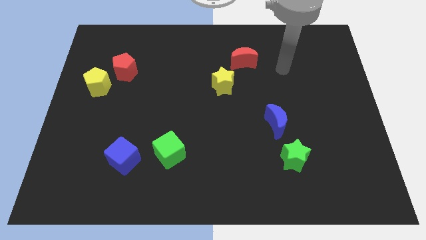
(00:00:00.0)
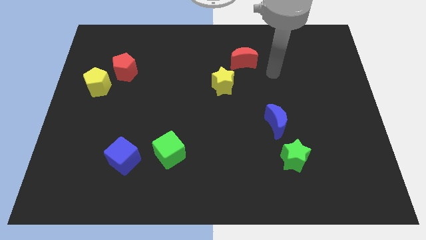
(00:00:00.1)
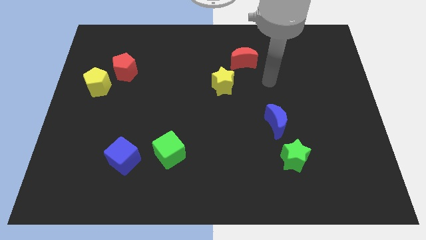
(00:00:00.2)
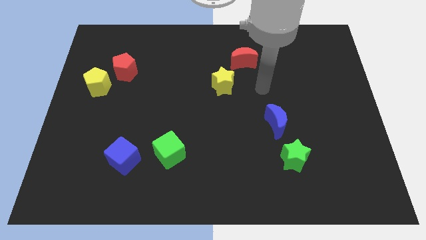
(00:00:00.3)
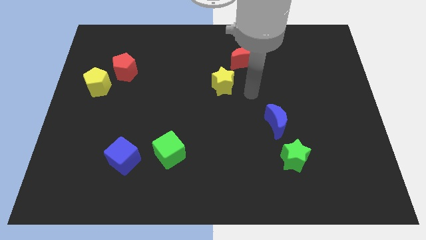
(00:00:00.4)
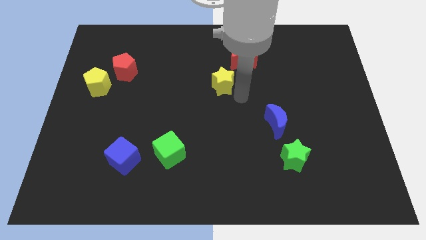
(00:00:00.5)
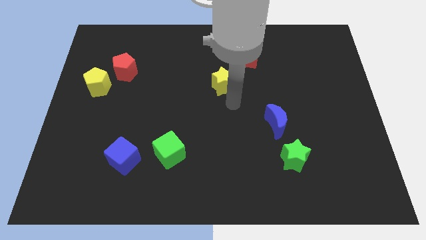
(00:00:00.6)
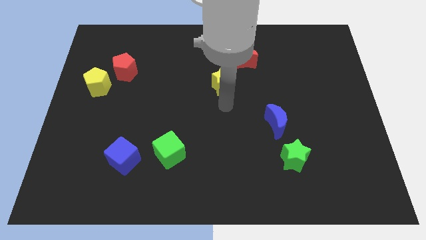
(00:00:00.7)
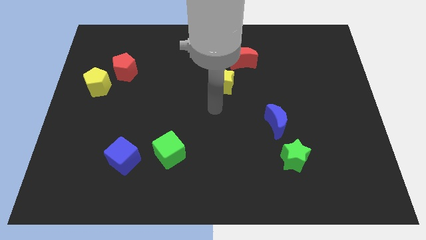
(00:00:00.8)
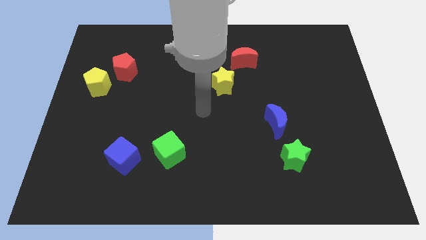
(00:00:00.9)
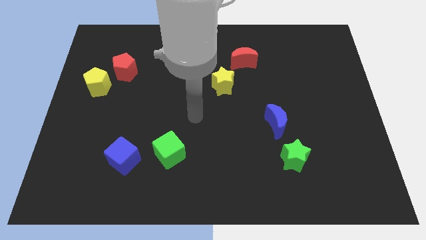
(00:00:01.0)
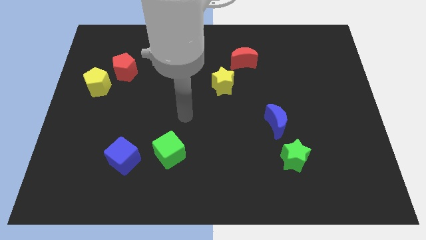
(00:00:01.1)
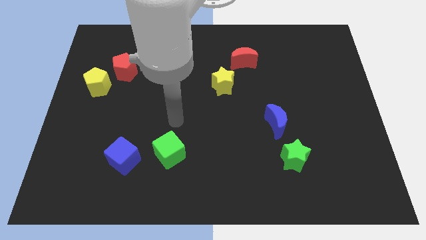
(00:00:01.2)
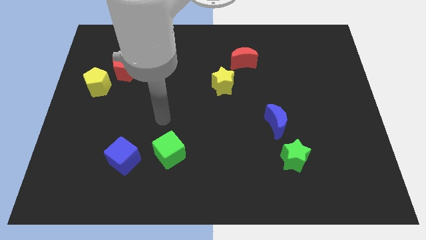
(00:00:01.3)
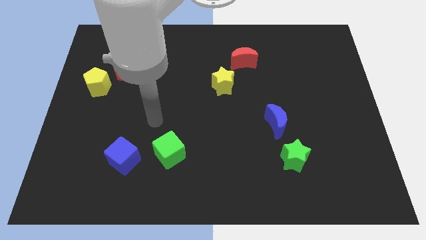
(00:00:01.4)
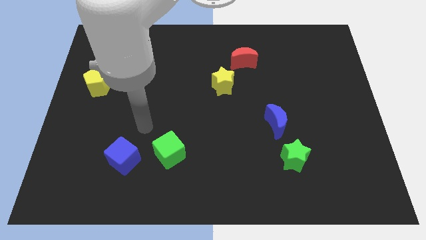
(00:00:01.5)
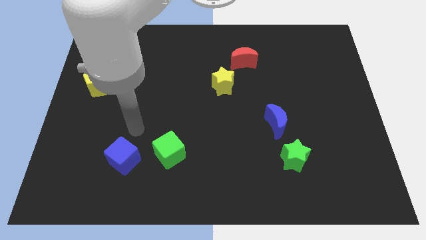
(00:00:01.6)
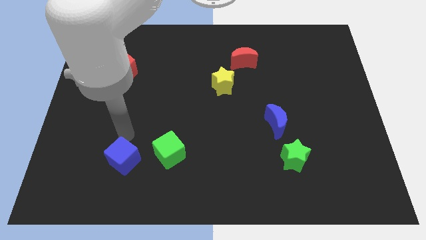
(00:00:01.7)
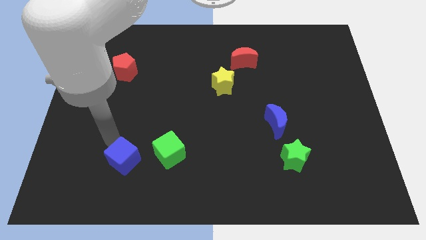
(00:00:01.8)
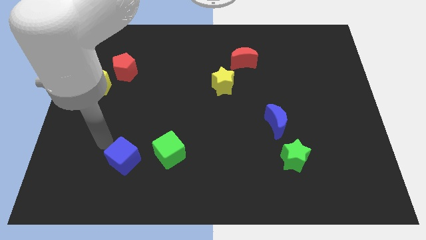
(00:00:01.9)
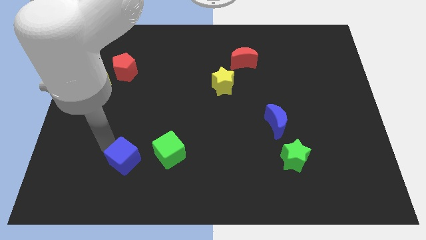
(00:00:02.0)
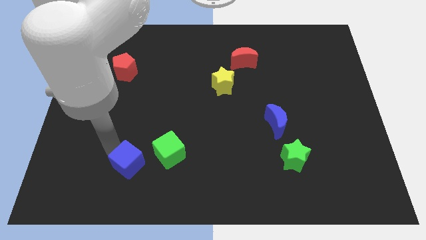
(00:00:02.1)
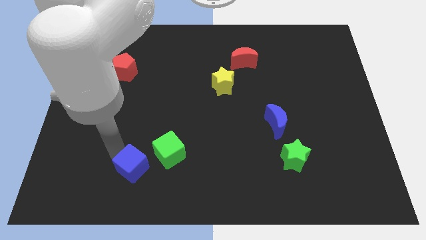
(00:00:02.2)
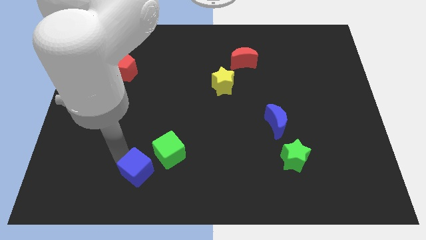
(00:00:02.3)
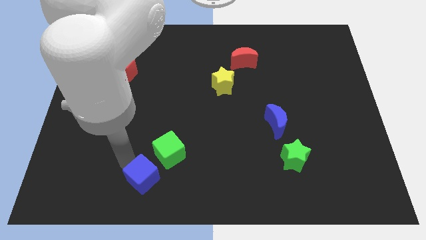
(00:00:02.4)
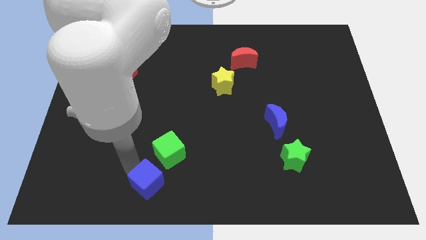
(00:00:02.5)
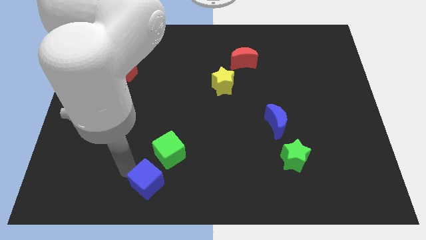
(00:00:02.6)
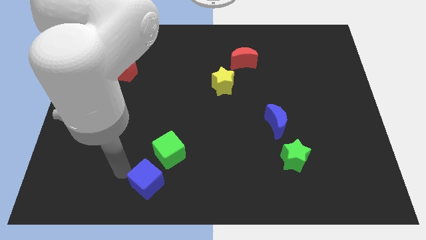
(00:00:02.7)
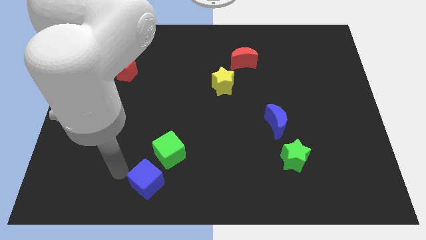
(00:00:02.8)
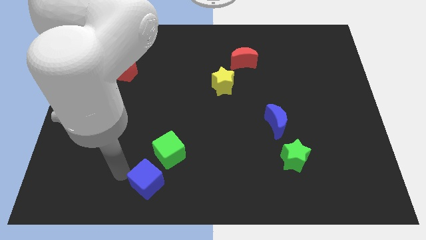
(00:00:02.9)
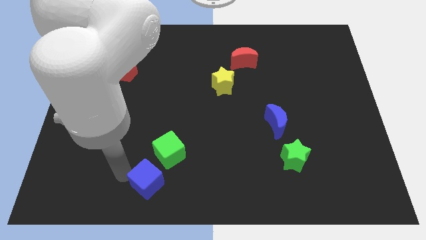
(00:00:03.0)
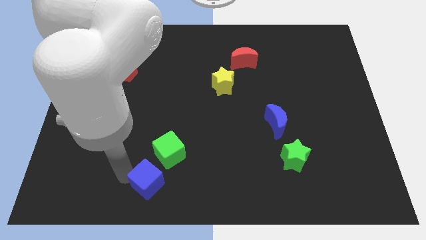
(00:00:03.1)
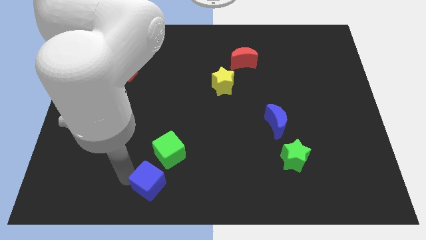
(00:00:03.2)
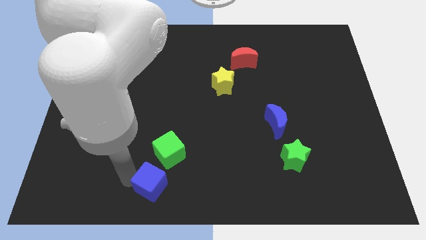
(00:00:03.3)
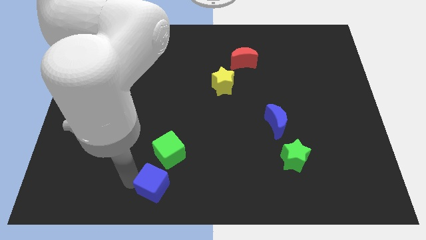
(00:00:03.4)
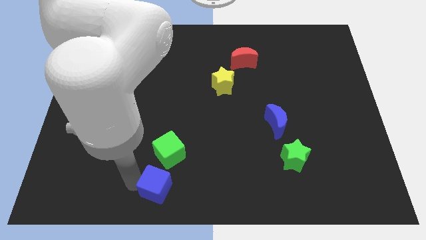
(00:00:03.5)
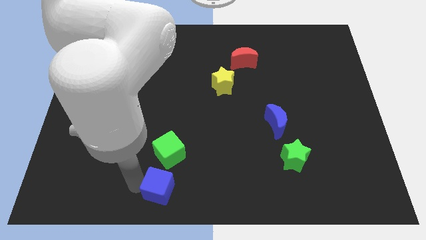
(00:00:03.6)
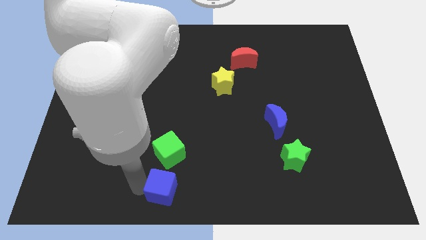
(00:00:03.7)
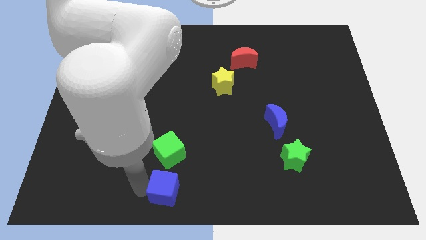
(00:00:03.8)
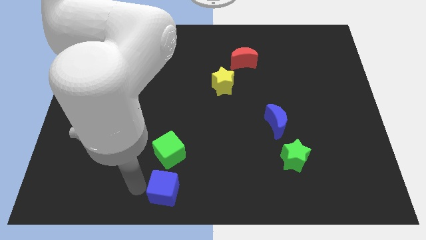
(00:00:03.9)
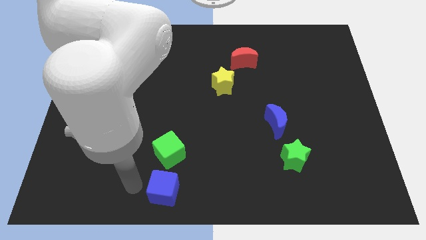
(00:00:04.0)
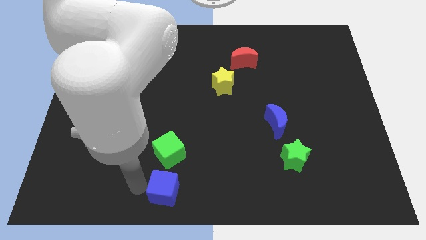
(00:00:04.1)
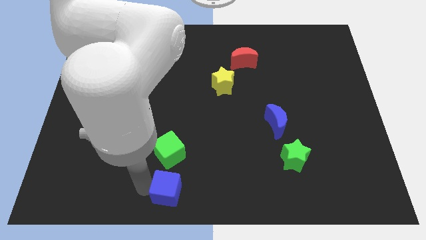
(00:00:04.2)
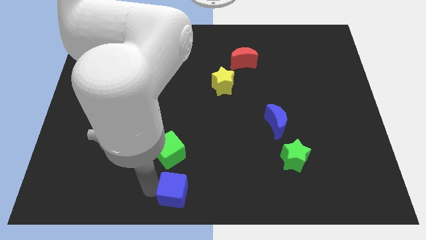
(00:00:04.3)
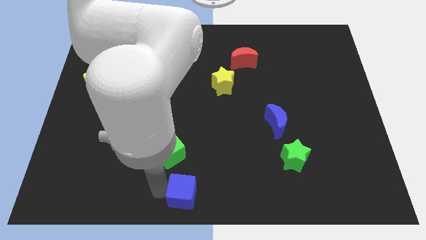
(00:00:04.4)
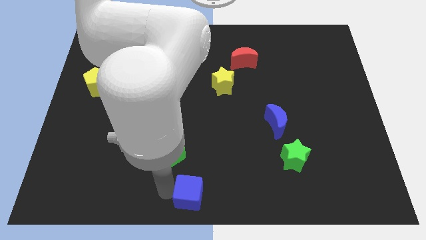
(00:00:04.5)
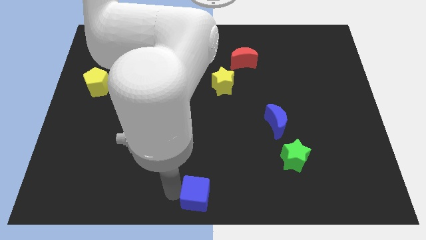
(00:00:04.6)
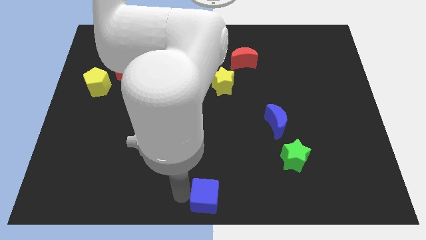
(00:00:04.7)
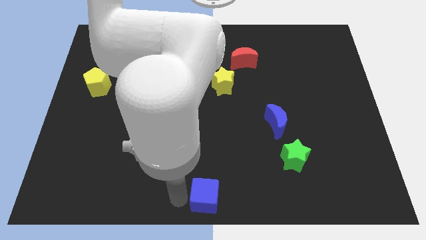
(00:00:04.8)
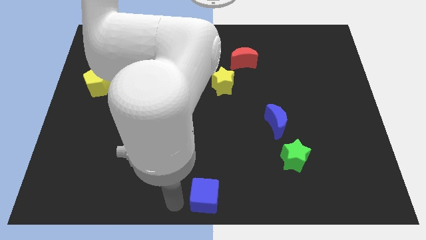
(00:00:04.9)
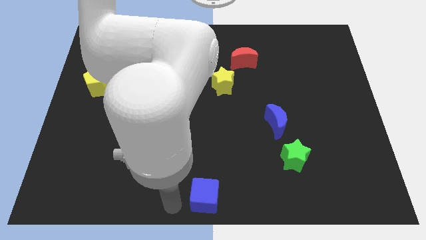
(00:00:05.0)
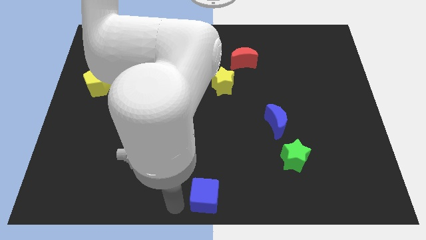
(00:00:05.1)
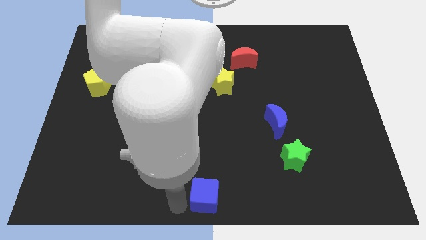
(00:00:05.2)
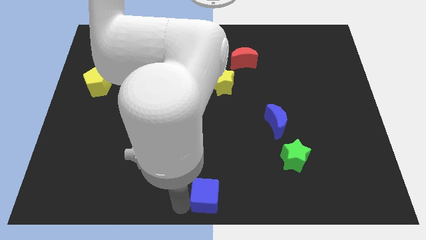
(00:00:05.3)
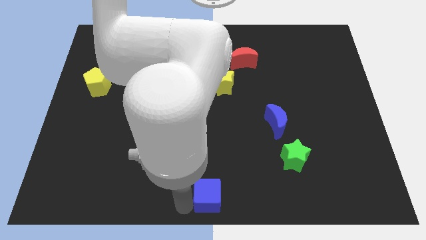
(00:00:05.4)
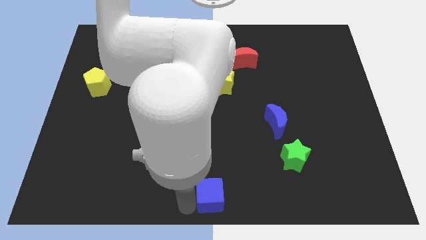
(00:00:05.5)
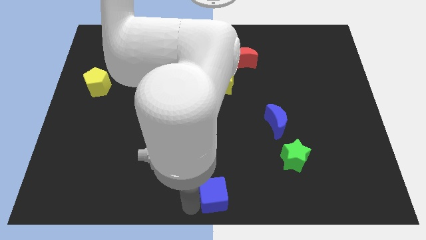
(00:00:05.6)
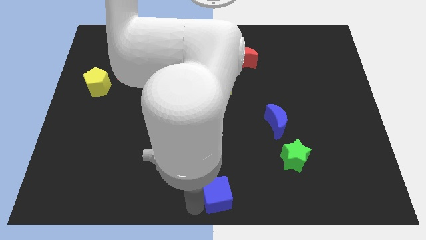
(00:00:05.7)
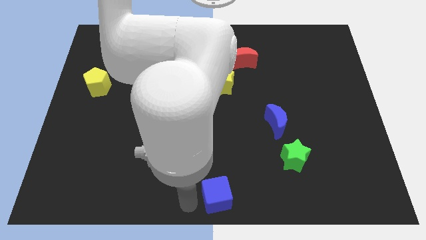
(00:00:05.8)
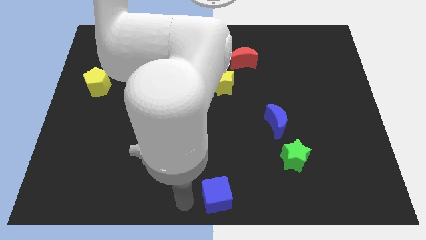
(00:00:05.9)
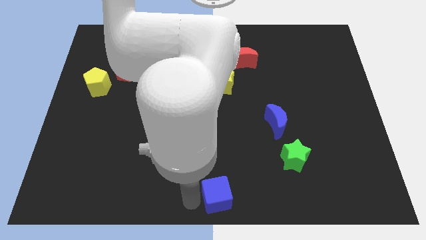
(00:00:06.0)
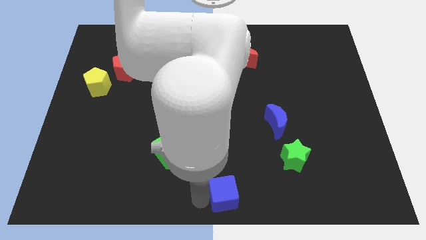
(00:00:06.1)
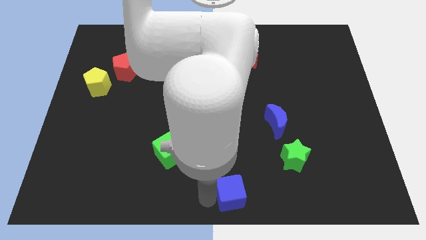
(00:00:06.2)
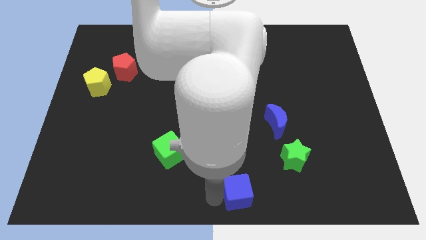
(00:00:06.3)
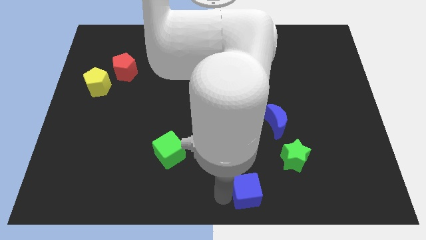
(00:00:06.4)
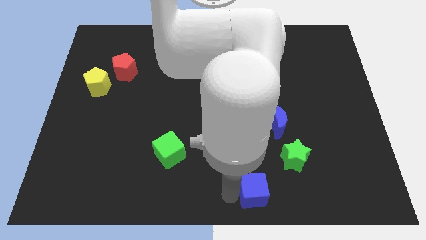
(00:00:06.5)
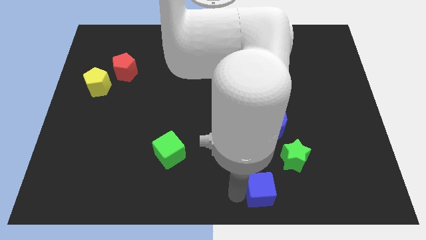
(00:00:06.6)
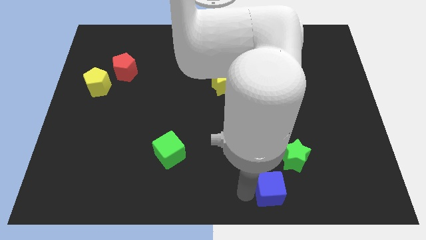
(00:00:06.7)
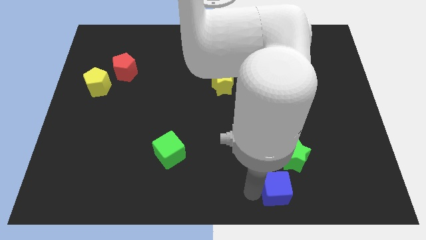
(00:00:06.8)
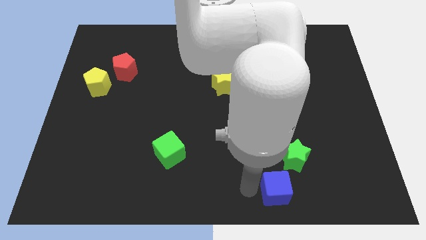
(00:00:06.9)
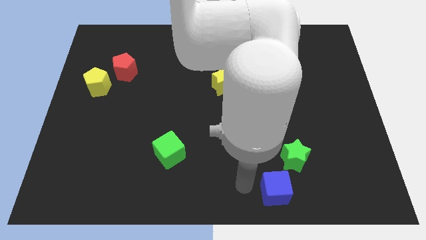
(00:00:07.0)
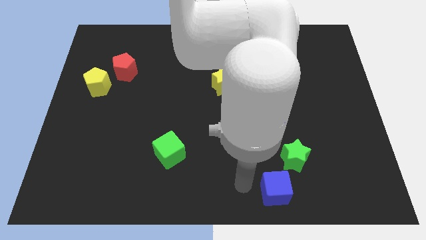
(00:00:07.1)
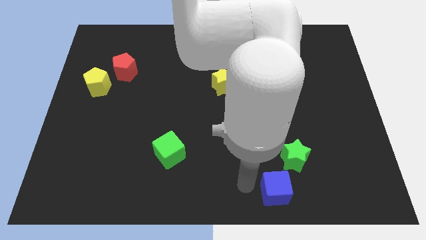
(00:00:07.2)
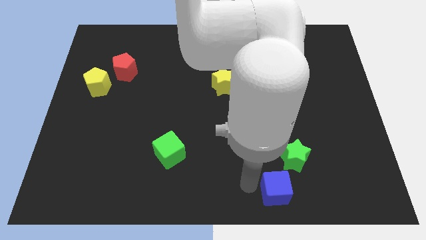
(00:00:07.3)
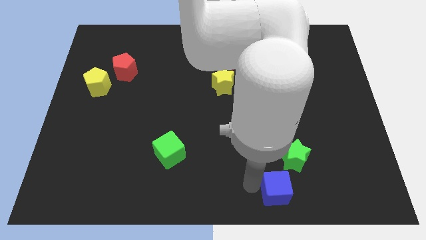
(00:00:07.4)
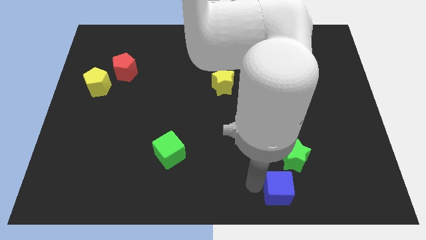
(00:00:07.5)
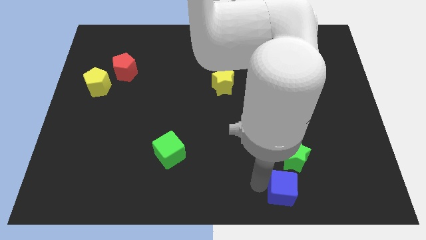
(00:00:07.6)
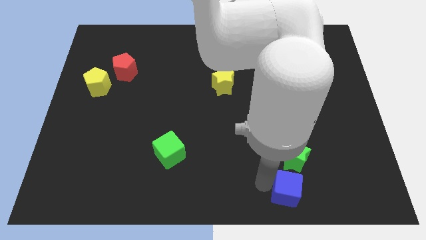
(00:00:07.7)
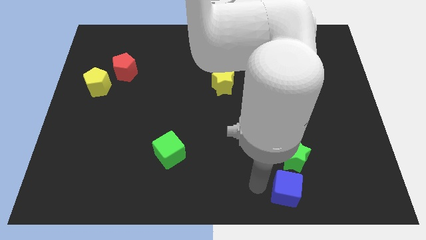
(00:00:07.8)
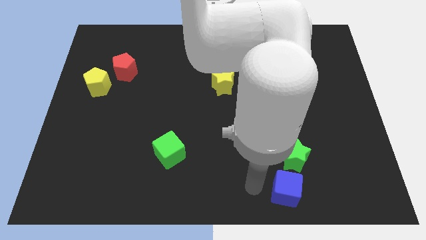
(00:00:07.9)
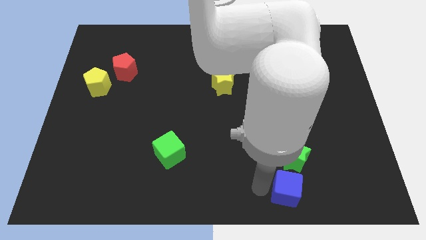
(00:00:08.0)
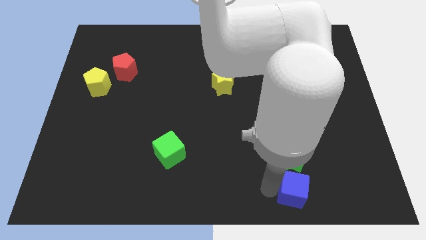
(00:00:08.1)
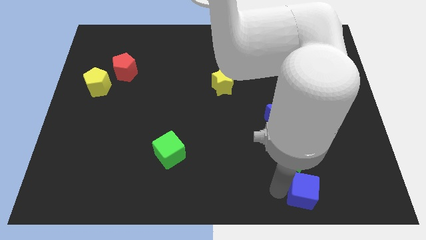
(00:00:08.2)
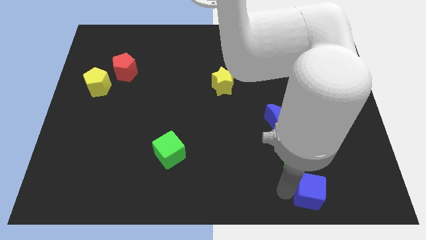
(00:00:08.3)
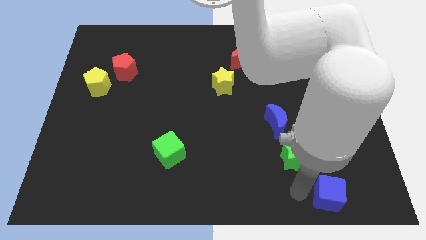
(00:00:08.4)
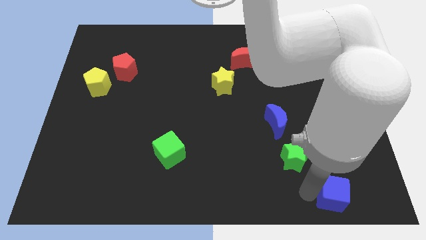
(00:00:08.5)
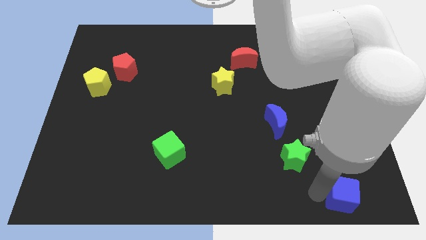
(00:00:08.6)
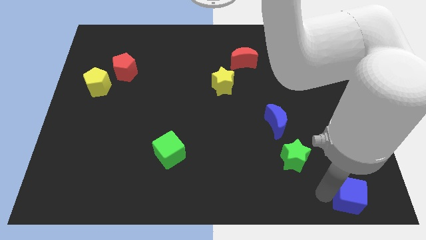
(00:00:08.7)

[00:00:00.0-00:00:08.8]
slide the blue cube to the bottom right corner
